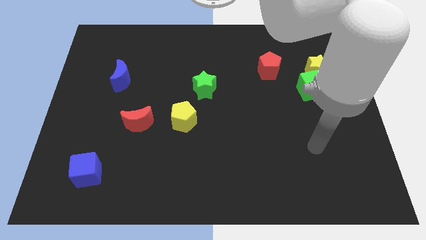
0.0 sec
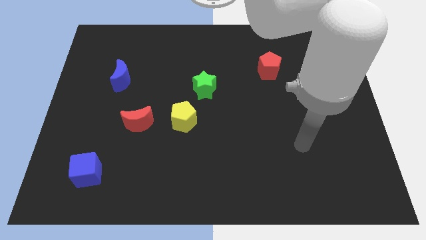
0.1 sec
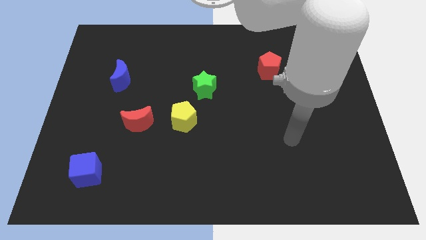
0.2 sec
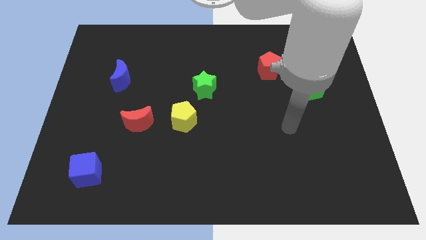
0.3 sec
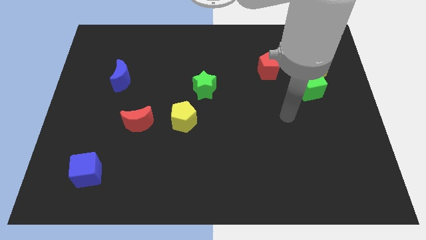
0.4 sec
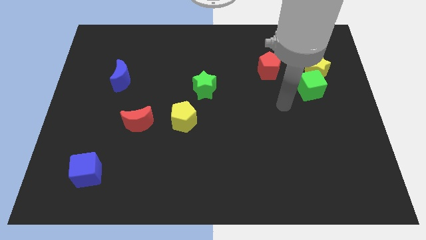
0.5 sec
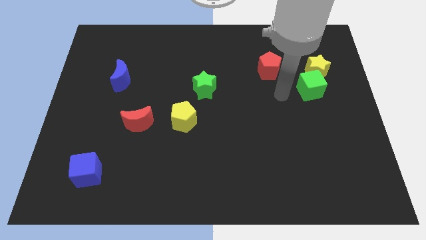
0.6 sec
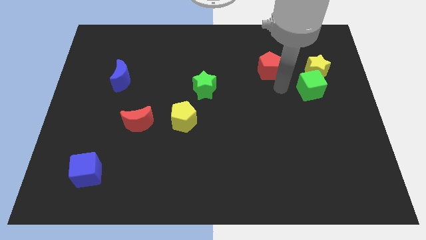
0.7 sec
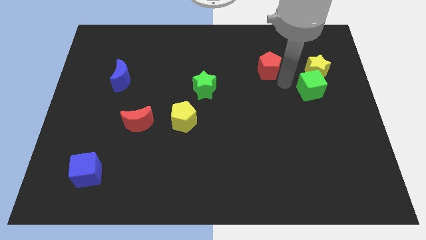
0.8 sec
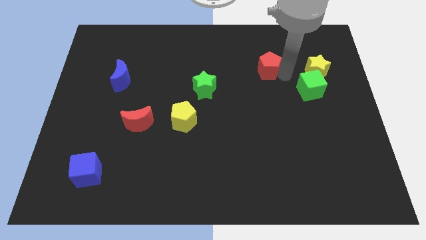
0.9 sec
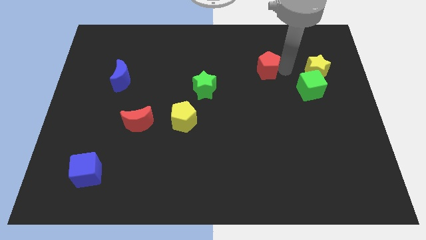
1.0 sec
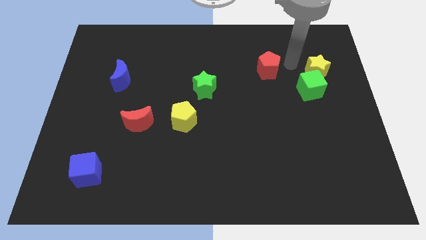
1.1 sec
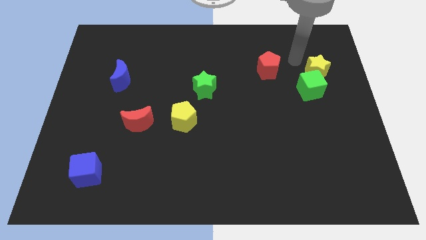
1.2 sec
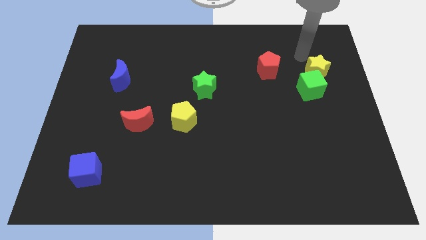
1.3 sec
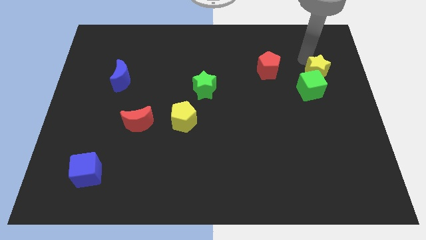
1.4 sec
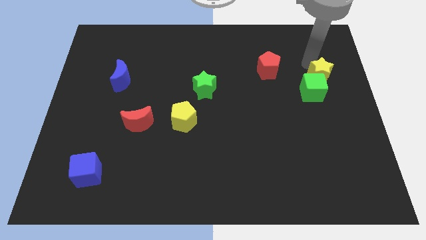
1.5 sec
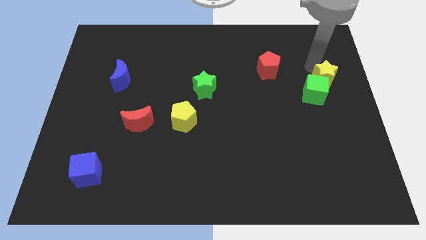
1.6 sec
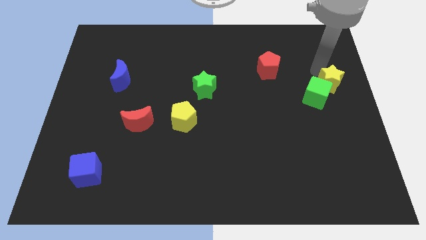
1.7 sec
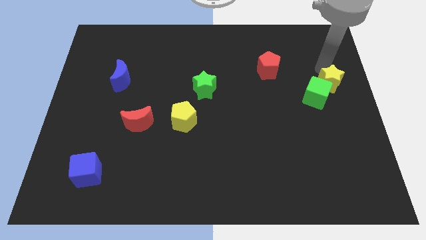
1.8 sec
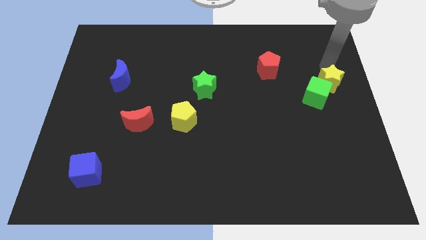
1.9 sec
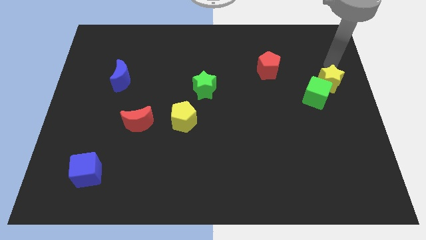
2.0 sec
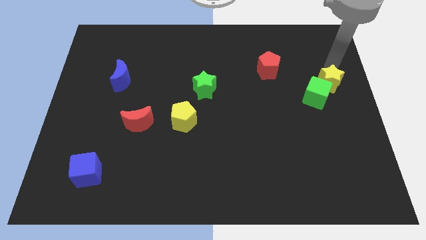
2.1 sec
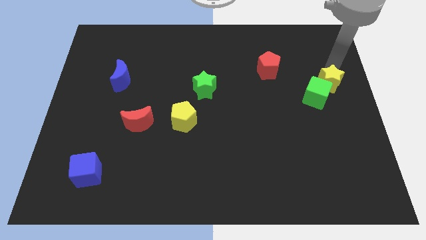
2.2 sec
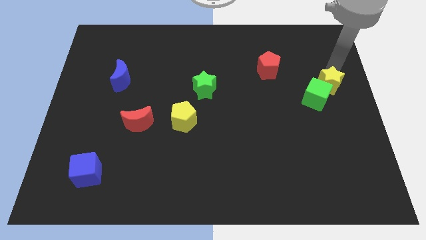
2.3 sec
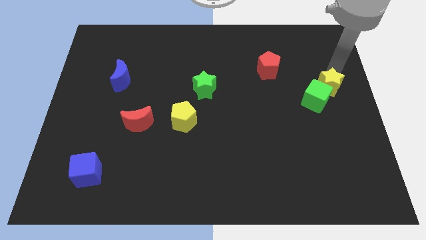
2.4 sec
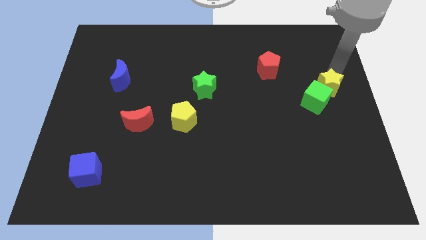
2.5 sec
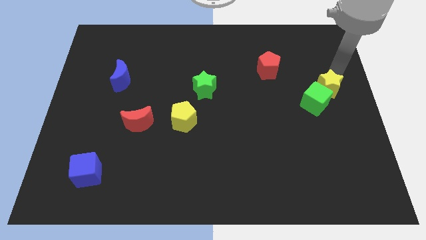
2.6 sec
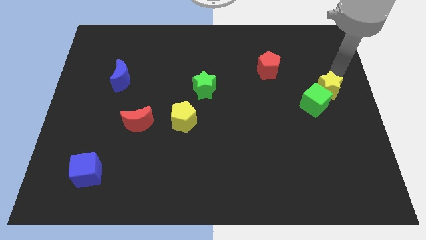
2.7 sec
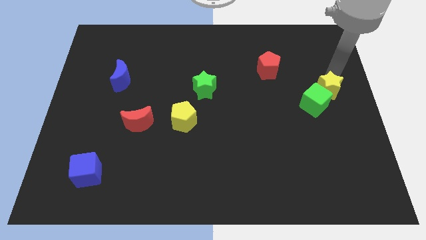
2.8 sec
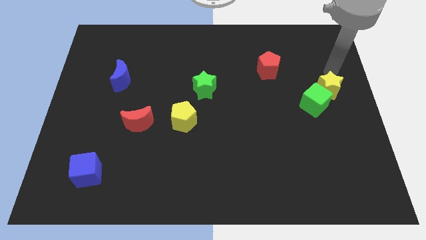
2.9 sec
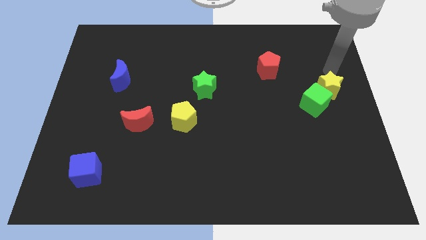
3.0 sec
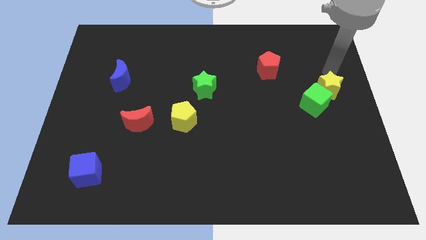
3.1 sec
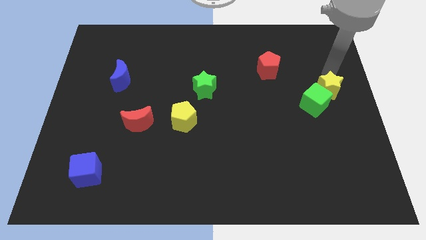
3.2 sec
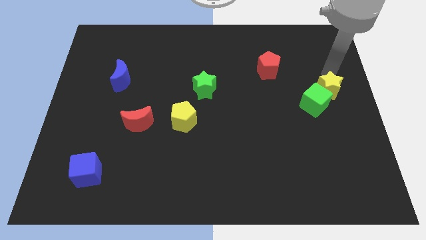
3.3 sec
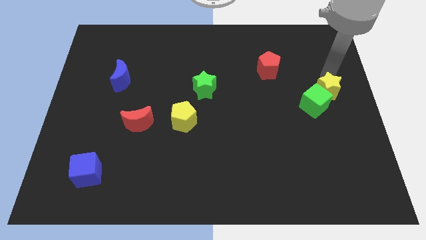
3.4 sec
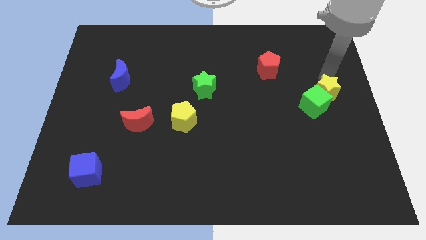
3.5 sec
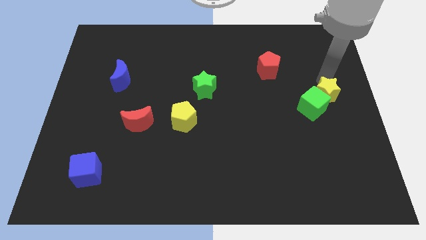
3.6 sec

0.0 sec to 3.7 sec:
move the yellow star downwards a little

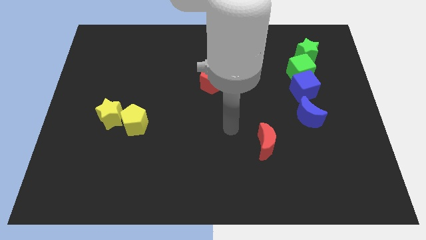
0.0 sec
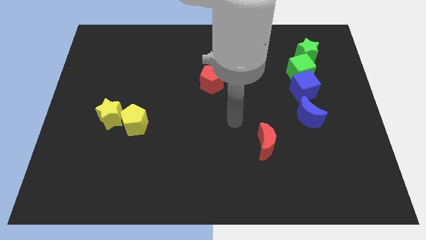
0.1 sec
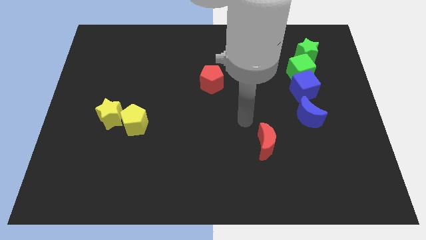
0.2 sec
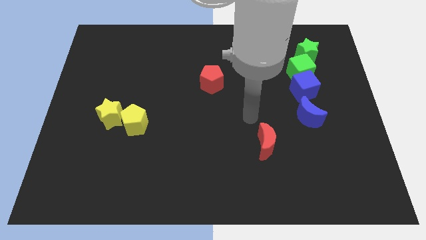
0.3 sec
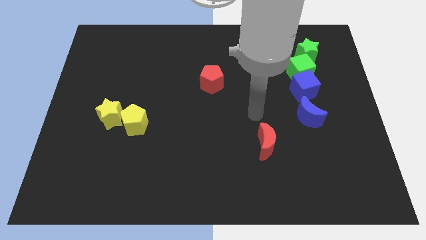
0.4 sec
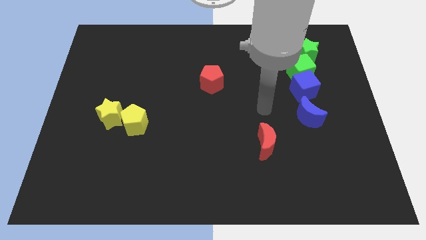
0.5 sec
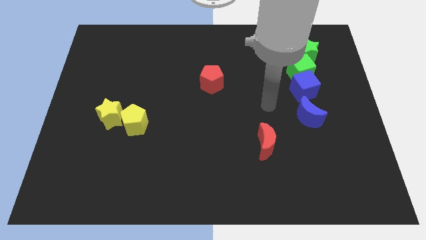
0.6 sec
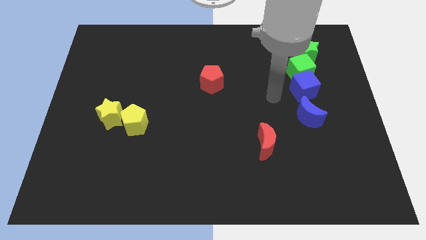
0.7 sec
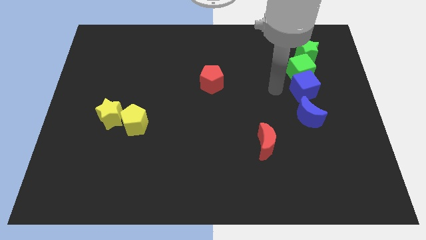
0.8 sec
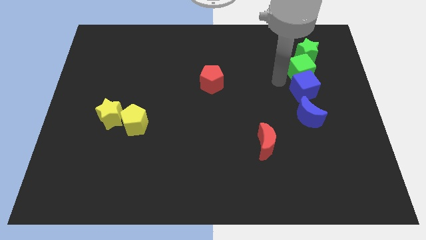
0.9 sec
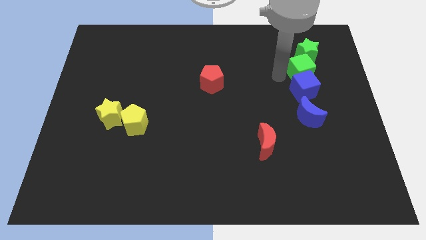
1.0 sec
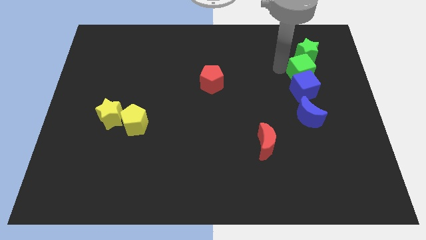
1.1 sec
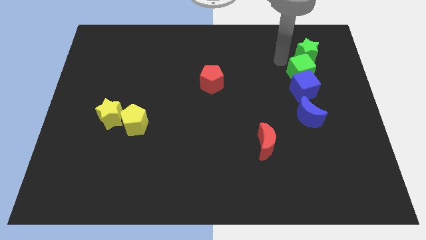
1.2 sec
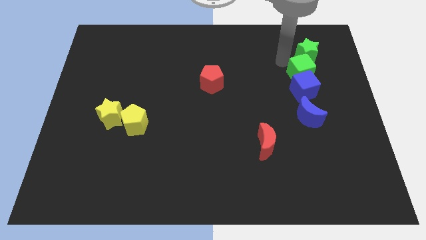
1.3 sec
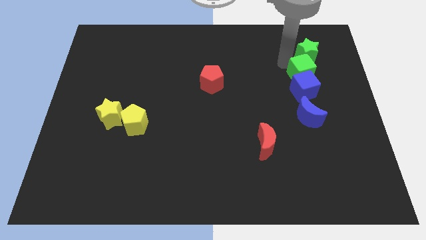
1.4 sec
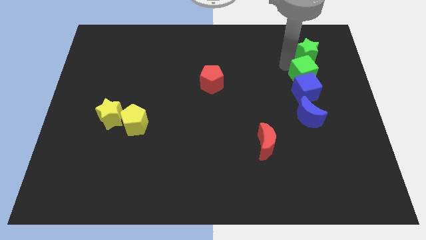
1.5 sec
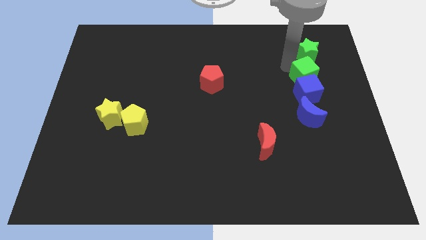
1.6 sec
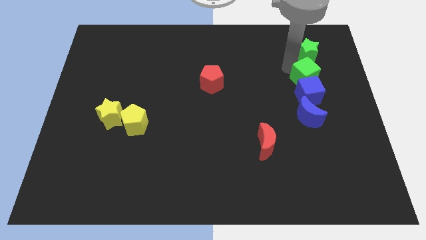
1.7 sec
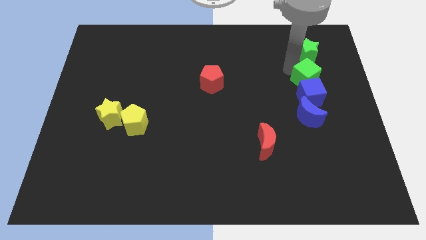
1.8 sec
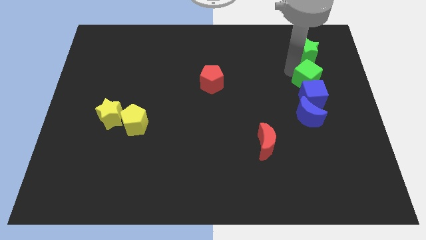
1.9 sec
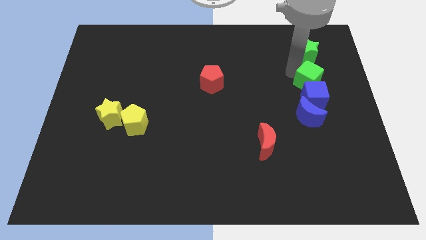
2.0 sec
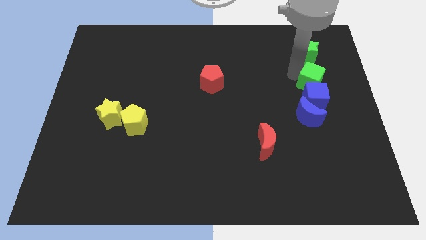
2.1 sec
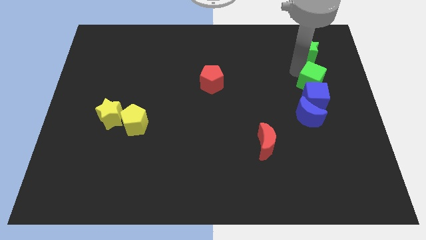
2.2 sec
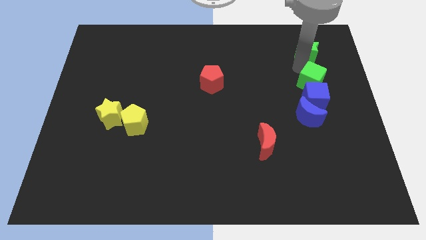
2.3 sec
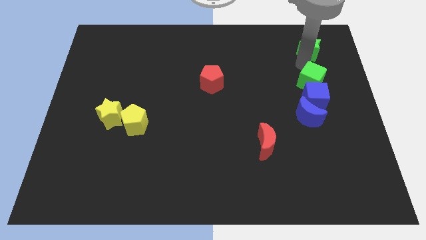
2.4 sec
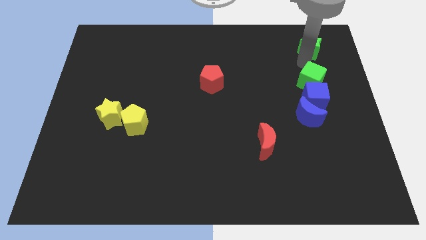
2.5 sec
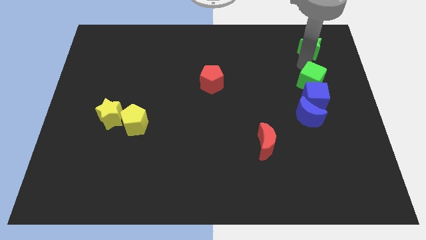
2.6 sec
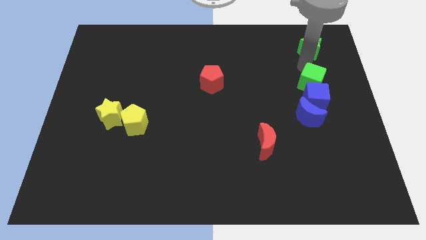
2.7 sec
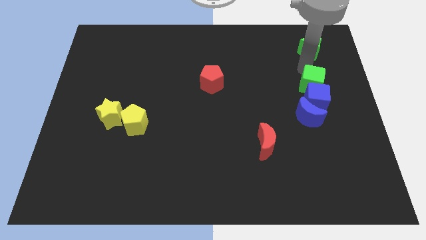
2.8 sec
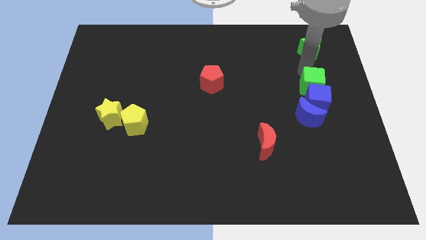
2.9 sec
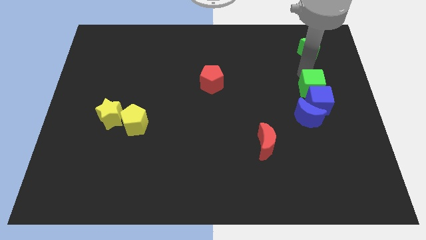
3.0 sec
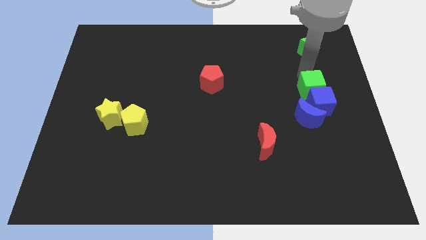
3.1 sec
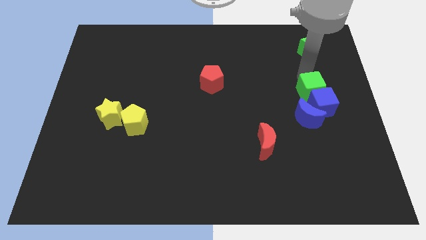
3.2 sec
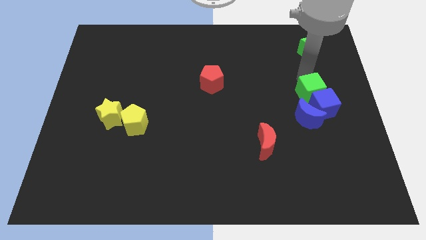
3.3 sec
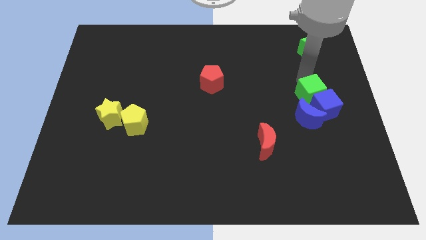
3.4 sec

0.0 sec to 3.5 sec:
push the green cube down slightly

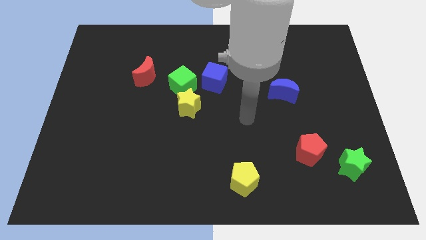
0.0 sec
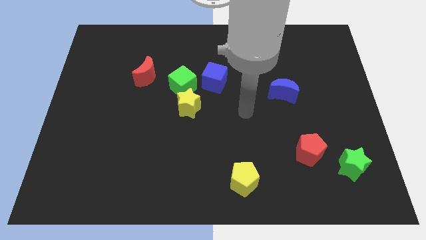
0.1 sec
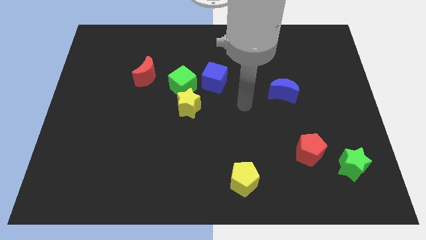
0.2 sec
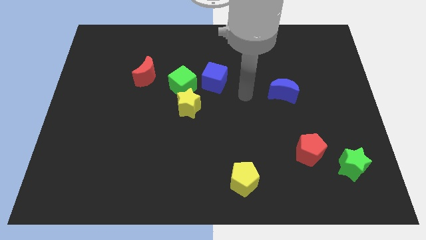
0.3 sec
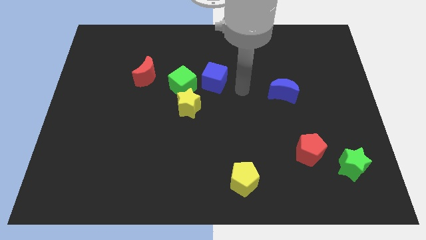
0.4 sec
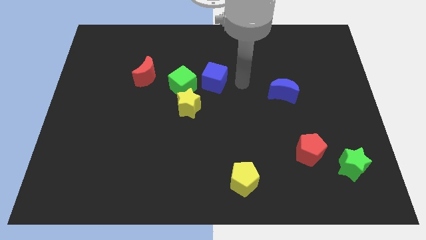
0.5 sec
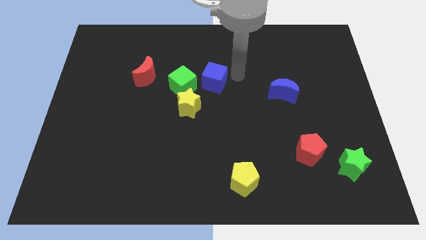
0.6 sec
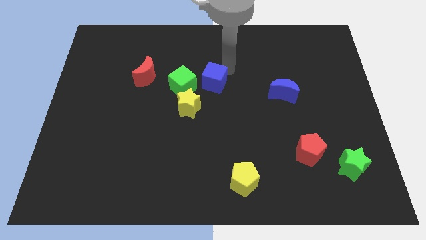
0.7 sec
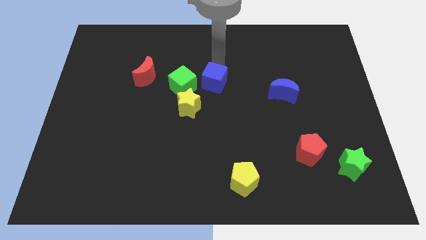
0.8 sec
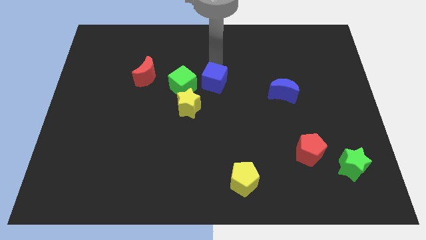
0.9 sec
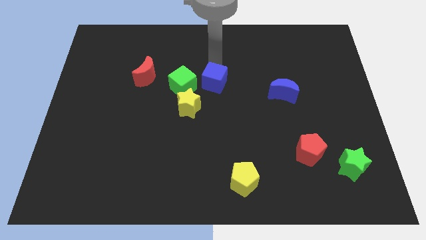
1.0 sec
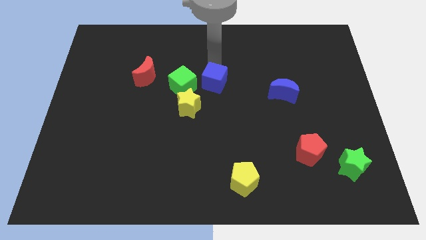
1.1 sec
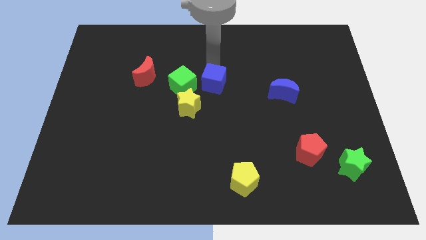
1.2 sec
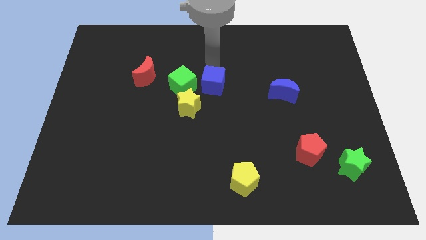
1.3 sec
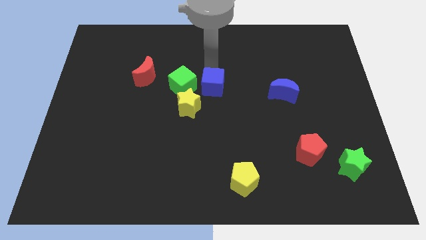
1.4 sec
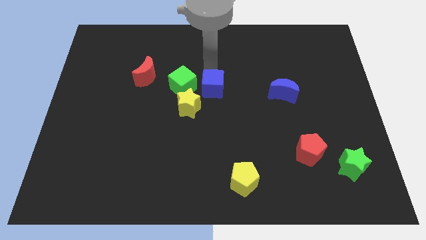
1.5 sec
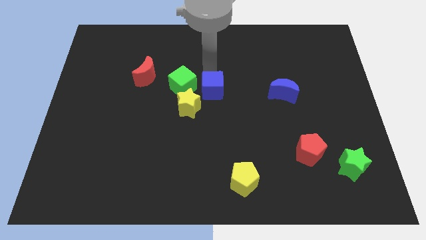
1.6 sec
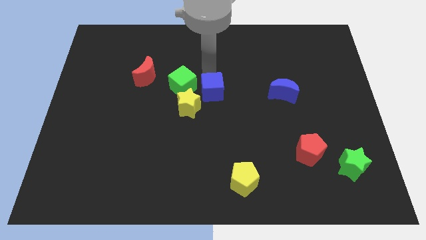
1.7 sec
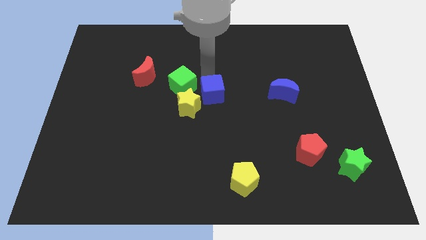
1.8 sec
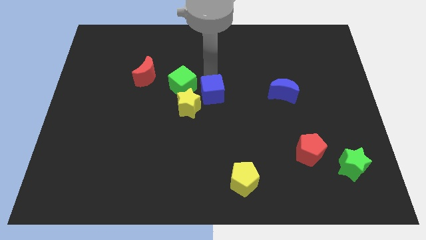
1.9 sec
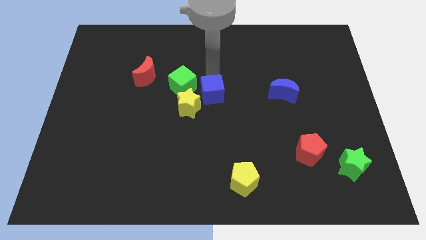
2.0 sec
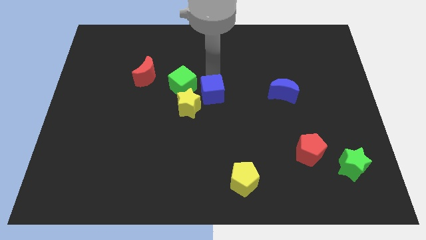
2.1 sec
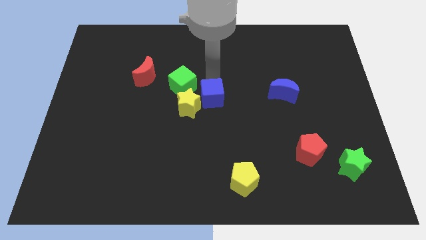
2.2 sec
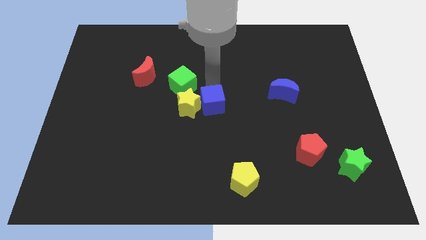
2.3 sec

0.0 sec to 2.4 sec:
slightly push the blue cube downwards
